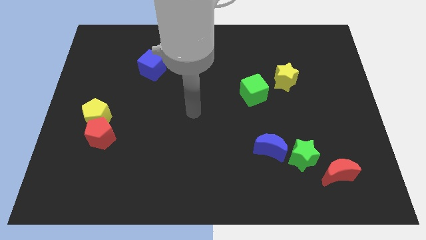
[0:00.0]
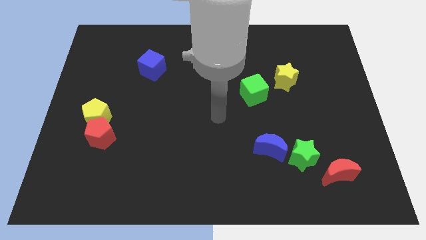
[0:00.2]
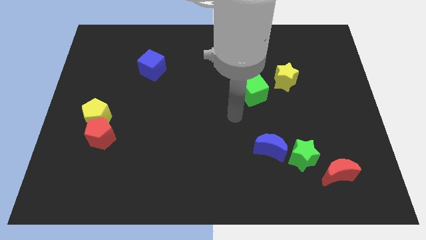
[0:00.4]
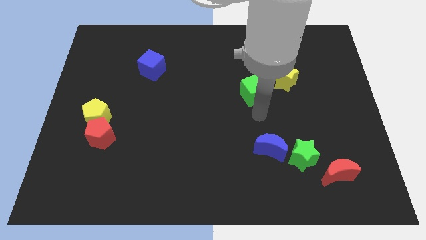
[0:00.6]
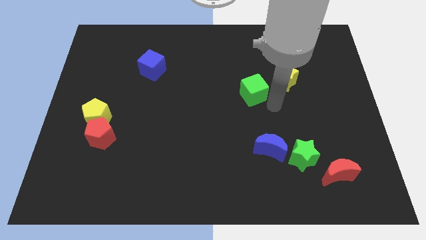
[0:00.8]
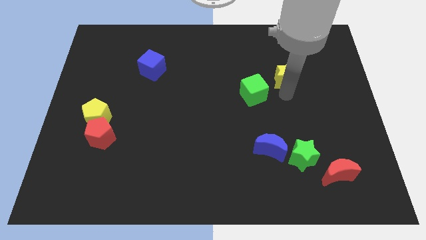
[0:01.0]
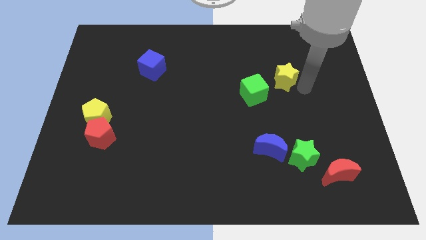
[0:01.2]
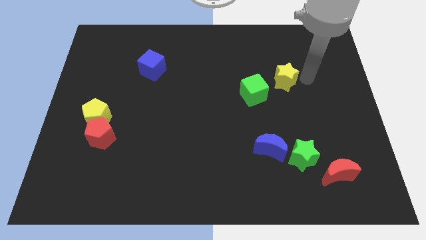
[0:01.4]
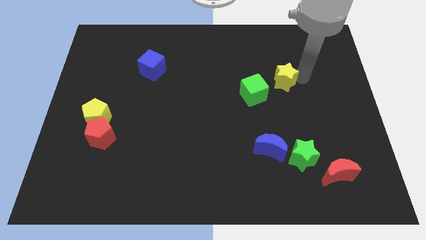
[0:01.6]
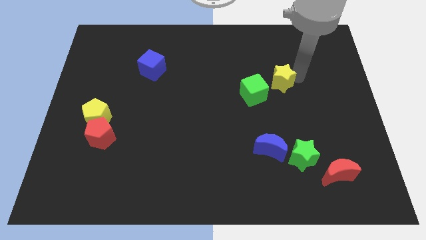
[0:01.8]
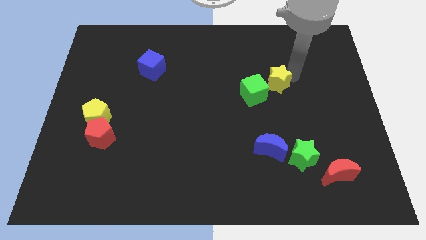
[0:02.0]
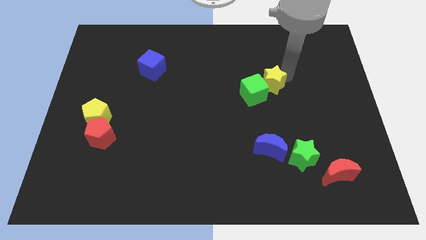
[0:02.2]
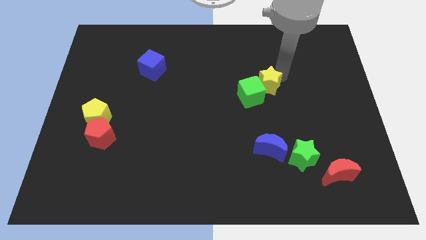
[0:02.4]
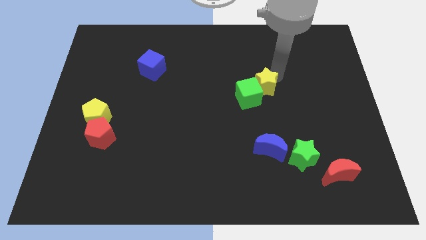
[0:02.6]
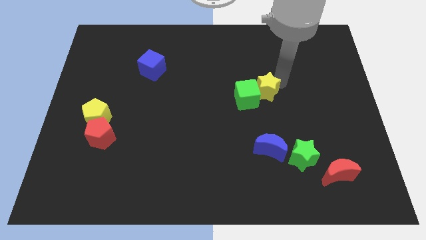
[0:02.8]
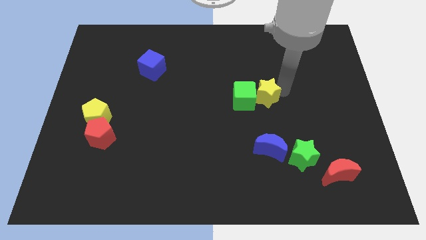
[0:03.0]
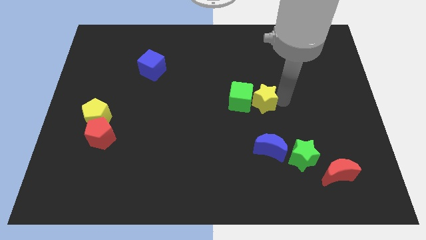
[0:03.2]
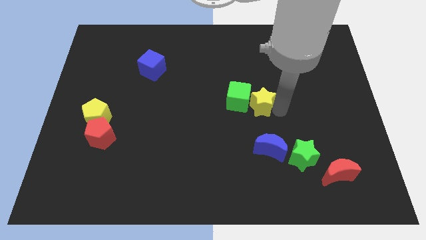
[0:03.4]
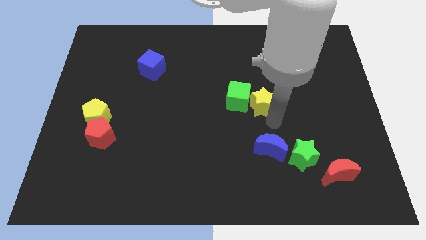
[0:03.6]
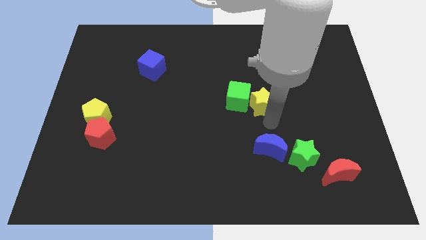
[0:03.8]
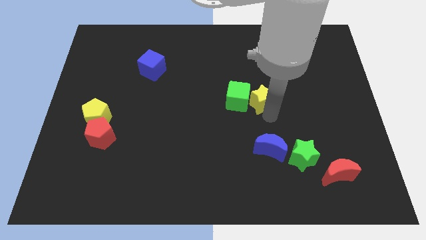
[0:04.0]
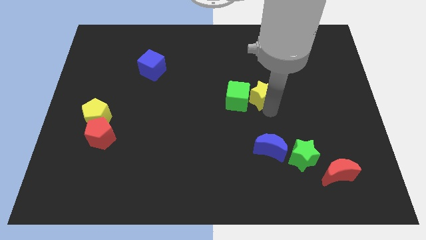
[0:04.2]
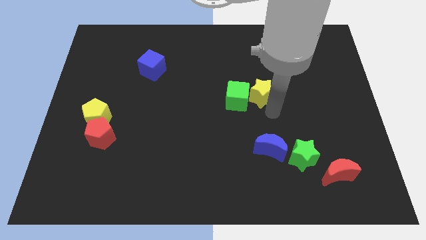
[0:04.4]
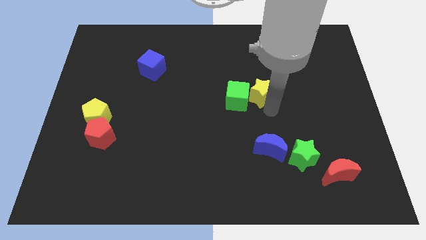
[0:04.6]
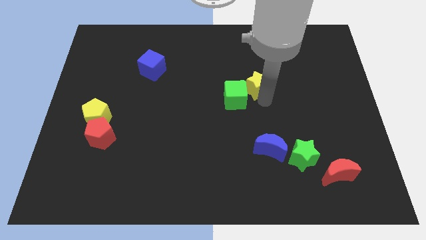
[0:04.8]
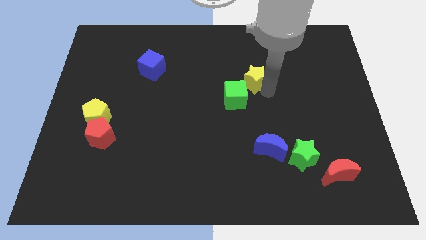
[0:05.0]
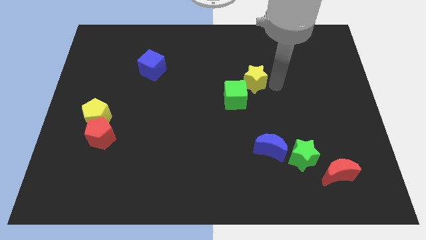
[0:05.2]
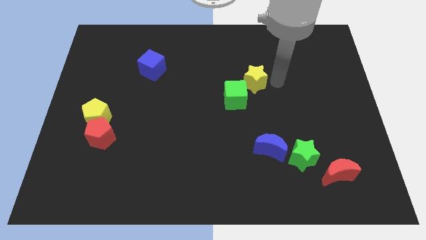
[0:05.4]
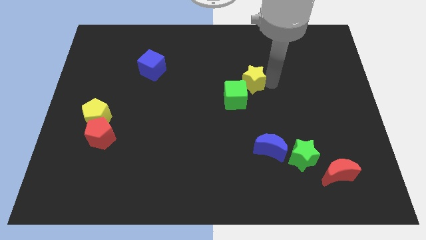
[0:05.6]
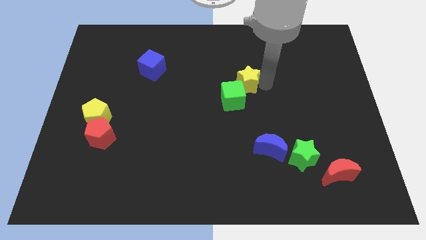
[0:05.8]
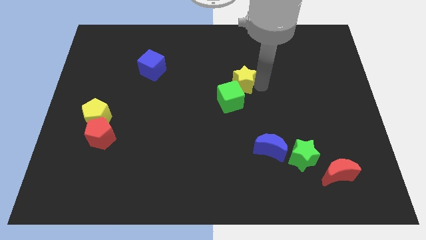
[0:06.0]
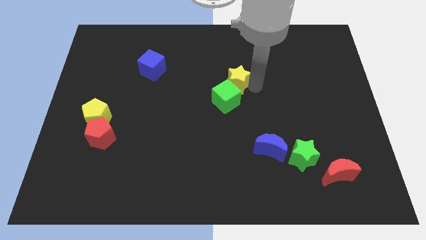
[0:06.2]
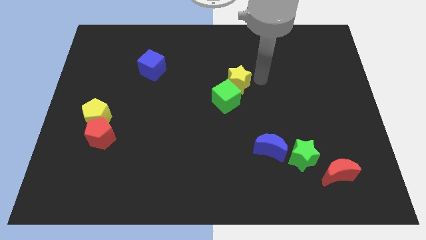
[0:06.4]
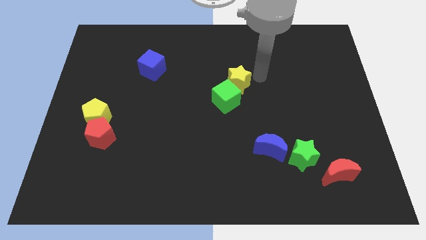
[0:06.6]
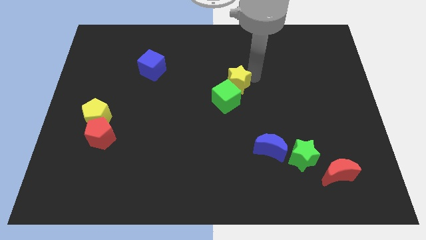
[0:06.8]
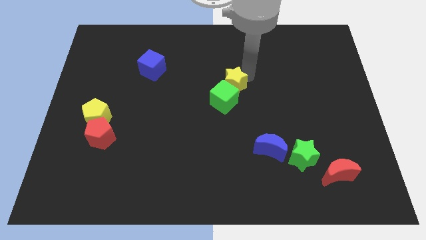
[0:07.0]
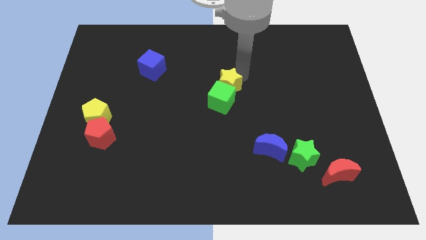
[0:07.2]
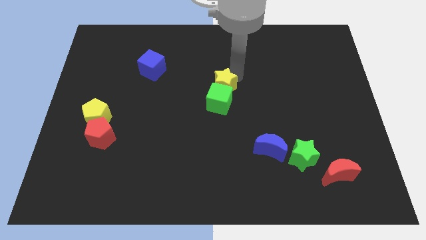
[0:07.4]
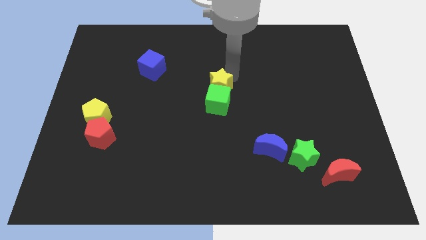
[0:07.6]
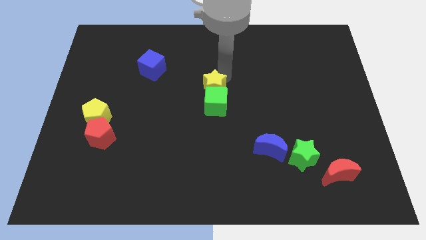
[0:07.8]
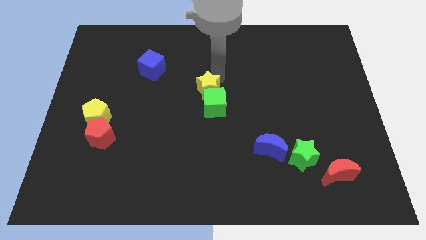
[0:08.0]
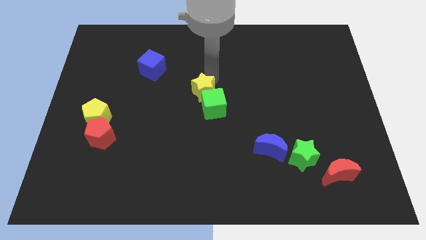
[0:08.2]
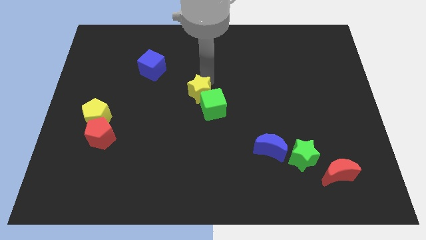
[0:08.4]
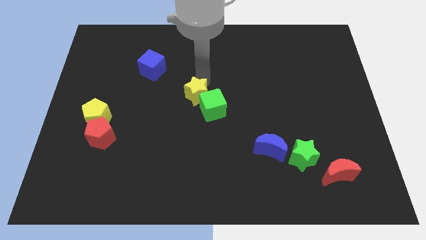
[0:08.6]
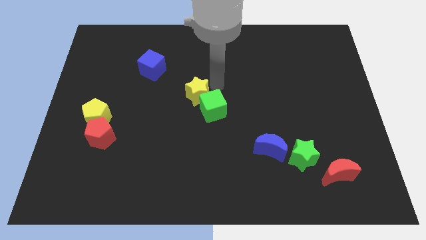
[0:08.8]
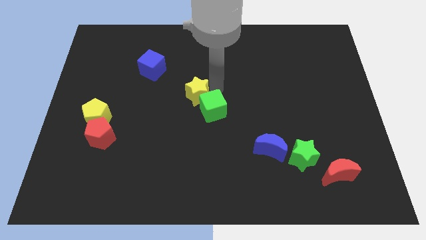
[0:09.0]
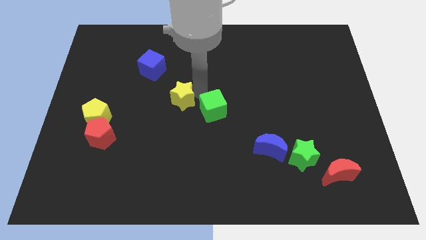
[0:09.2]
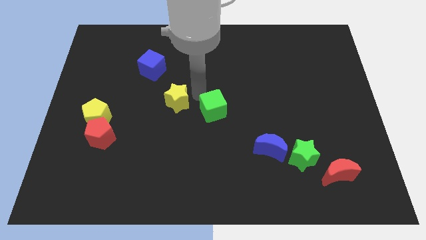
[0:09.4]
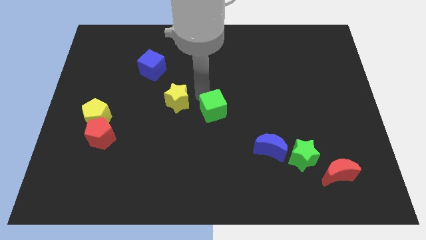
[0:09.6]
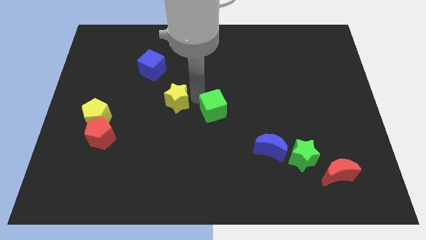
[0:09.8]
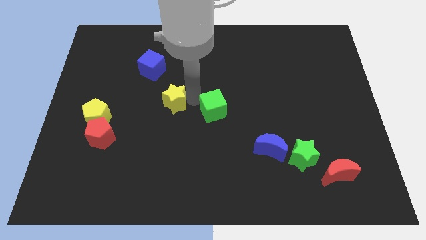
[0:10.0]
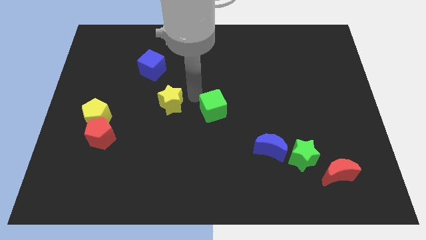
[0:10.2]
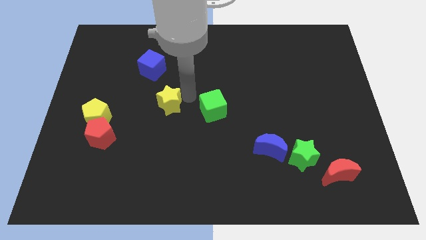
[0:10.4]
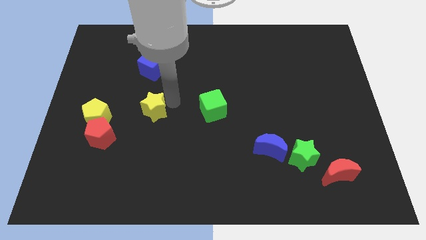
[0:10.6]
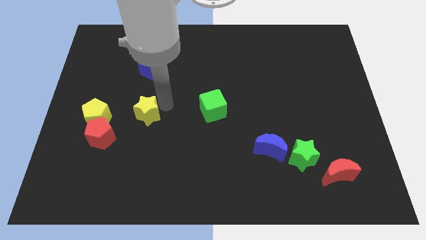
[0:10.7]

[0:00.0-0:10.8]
move the yellow star to the top right side of the red pentagon

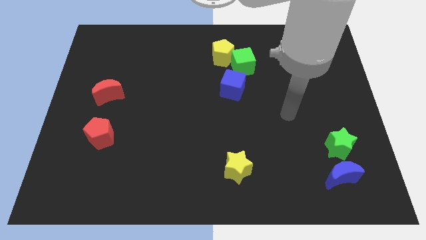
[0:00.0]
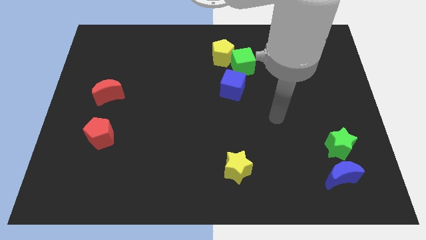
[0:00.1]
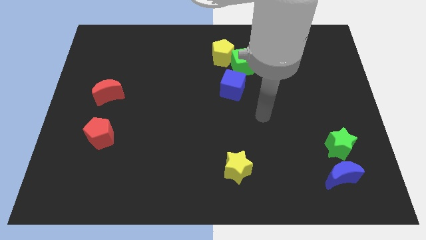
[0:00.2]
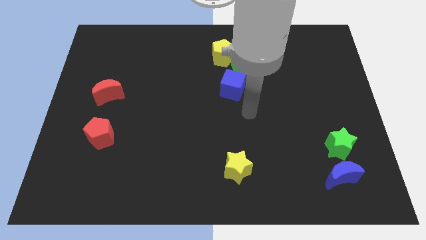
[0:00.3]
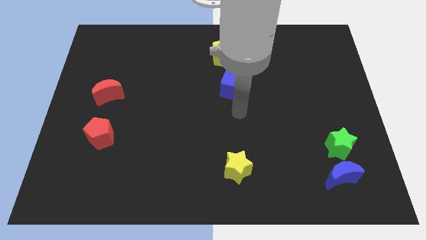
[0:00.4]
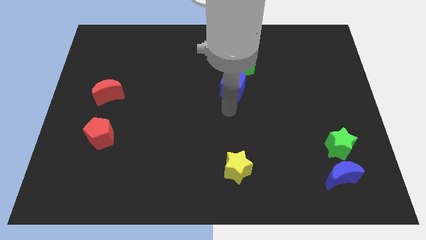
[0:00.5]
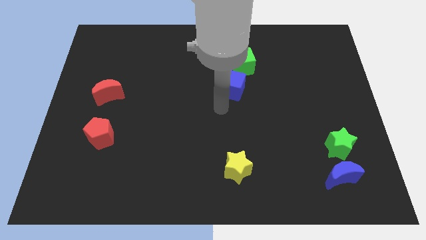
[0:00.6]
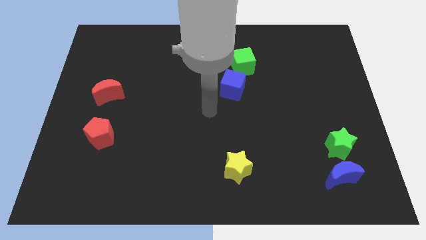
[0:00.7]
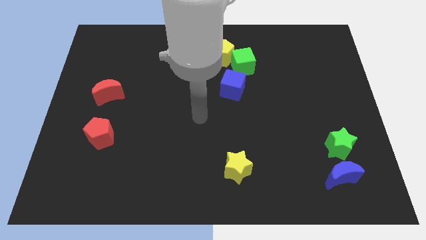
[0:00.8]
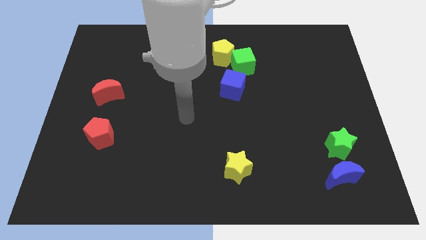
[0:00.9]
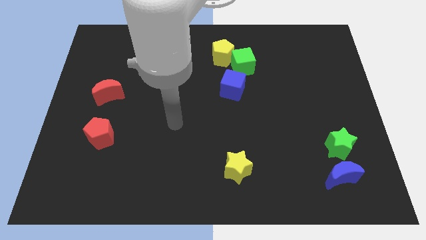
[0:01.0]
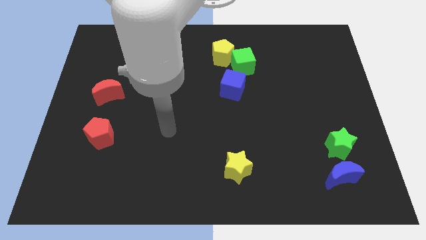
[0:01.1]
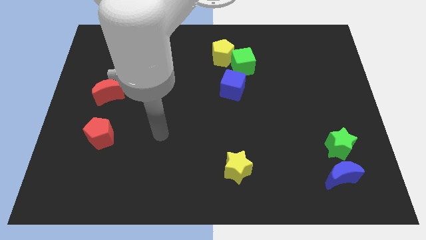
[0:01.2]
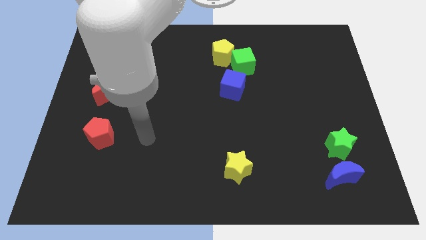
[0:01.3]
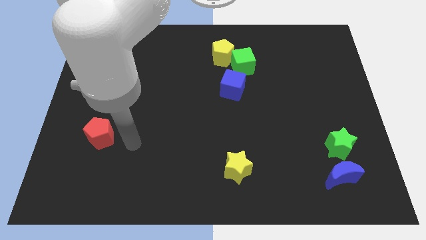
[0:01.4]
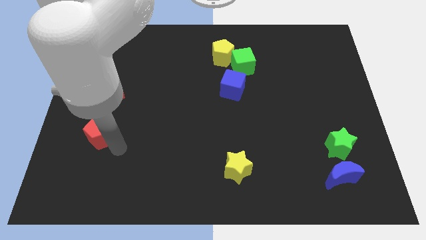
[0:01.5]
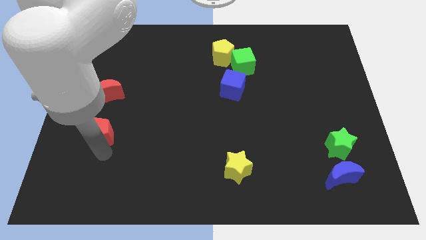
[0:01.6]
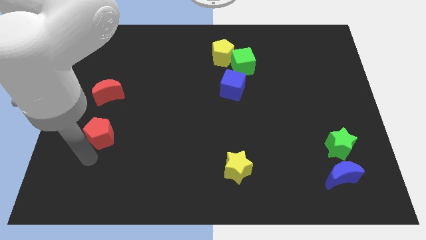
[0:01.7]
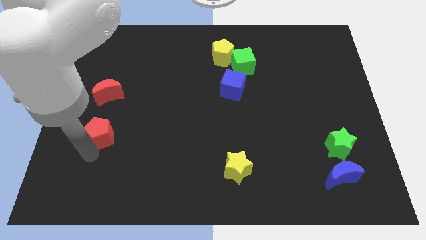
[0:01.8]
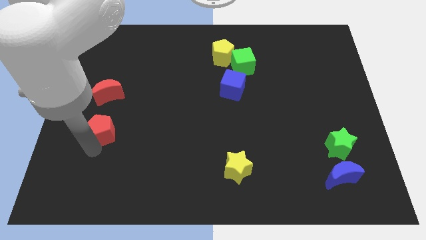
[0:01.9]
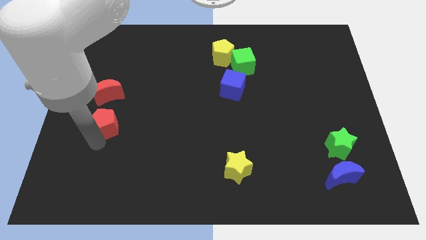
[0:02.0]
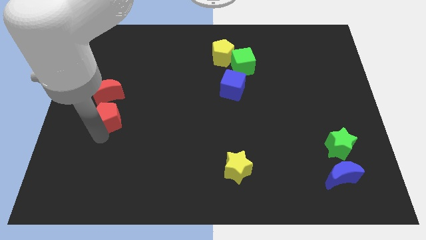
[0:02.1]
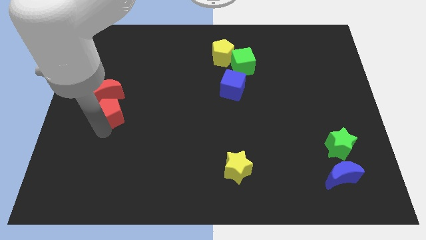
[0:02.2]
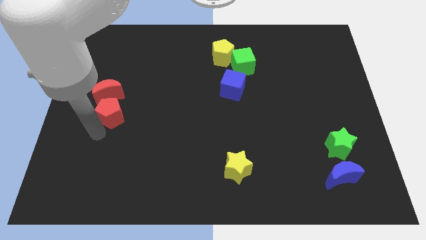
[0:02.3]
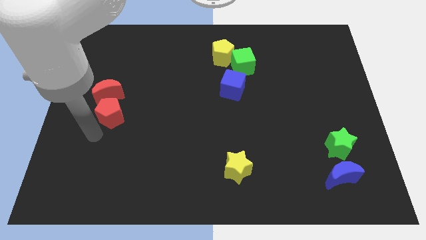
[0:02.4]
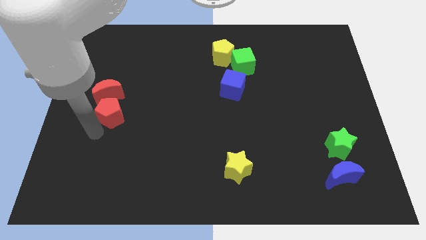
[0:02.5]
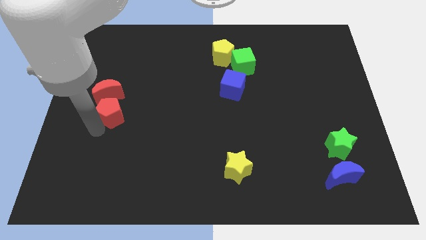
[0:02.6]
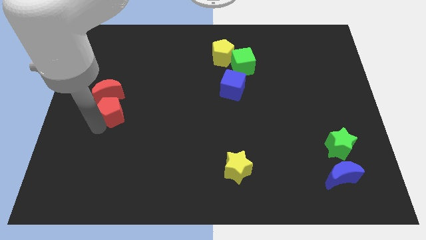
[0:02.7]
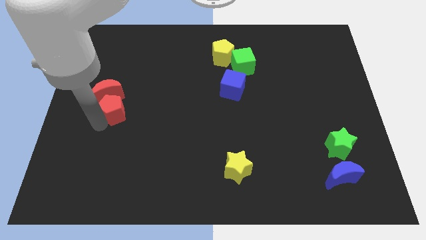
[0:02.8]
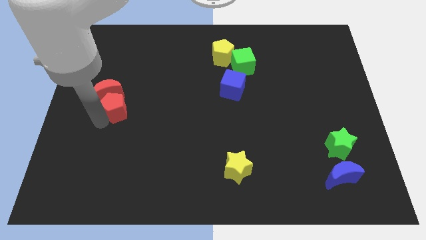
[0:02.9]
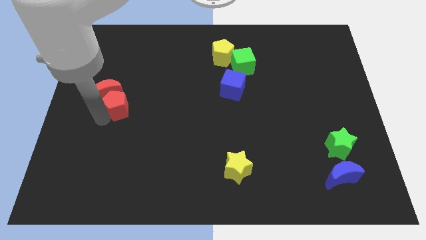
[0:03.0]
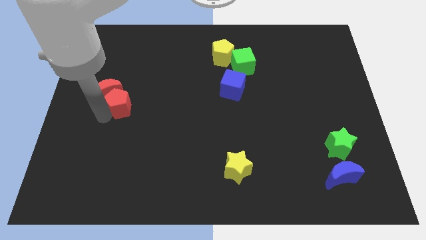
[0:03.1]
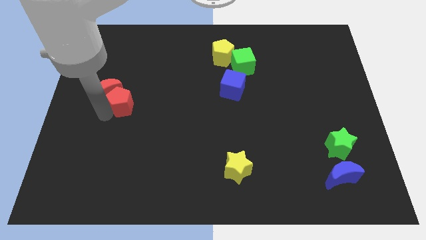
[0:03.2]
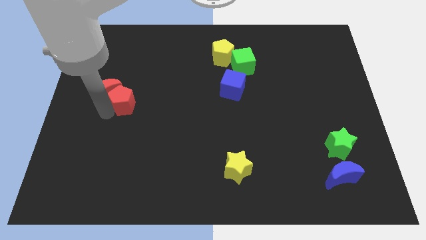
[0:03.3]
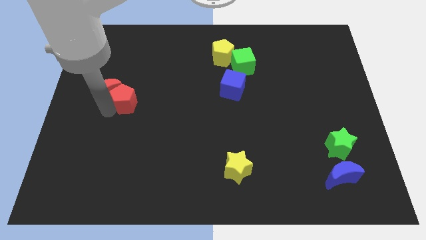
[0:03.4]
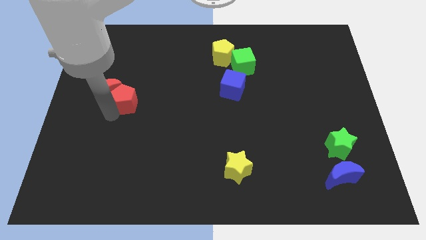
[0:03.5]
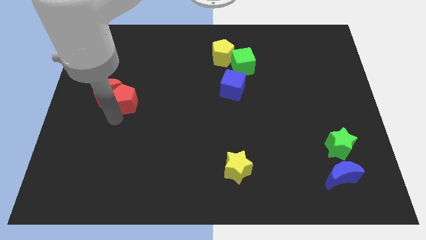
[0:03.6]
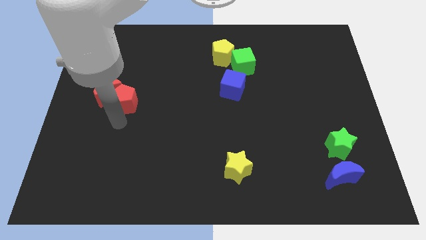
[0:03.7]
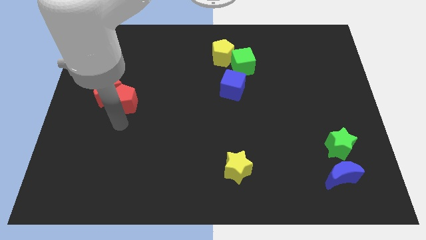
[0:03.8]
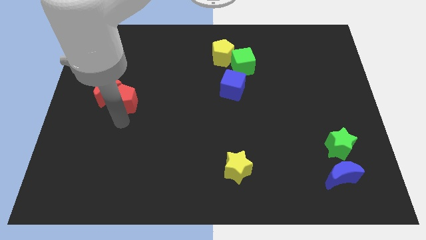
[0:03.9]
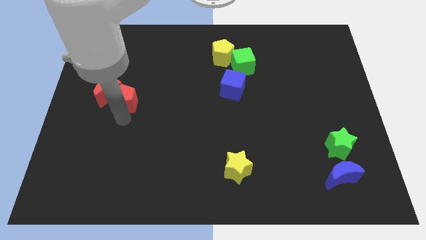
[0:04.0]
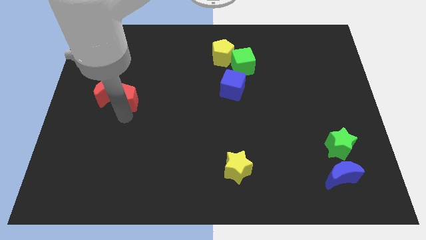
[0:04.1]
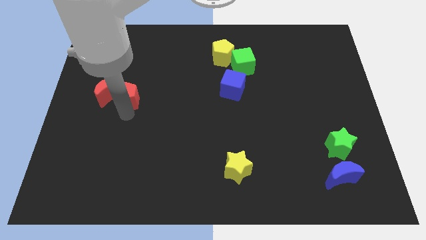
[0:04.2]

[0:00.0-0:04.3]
push the red pentagon to the top right of the red moon
